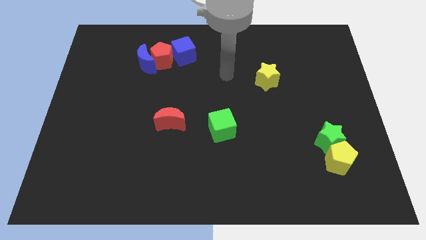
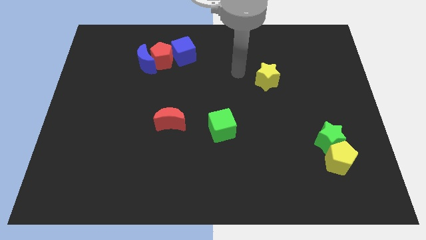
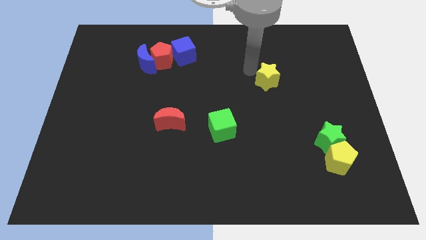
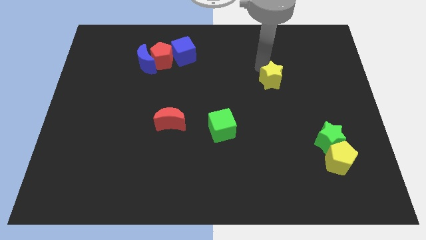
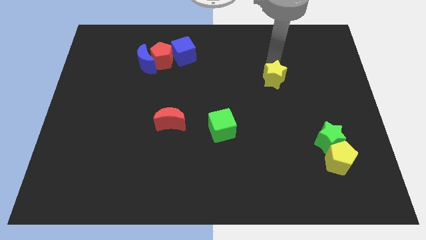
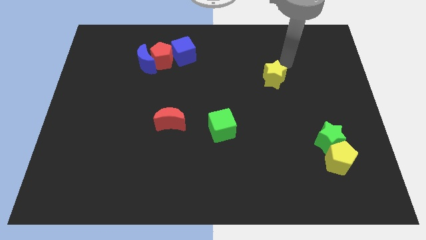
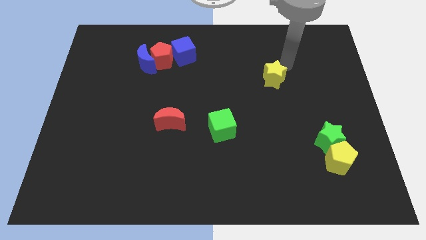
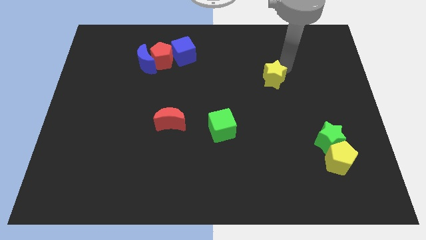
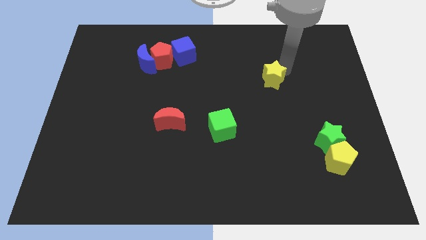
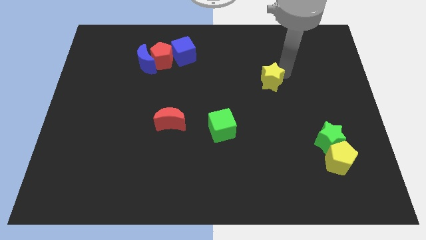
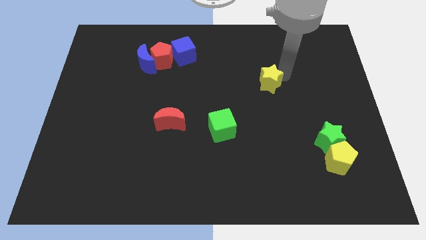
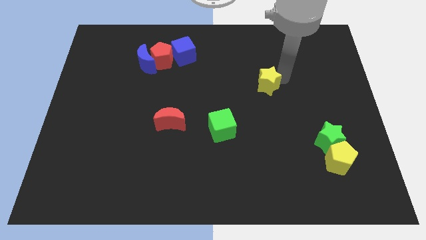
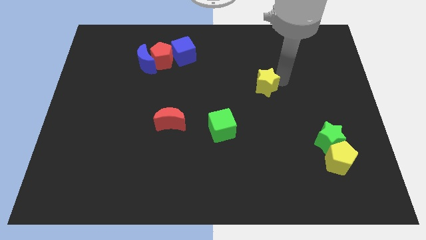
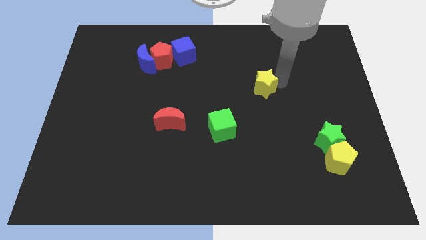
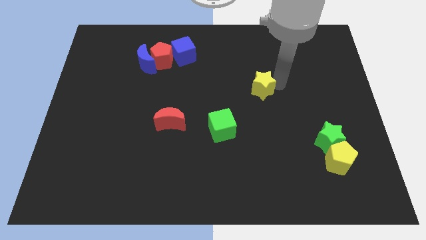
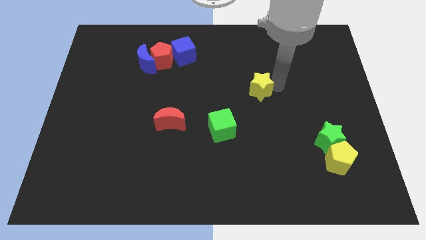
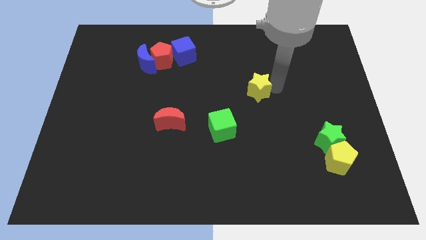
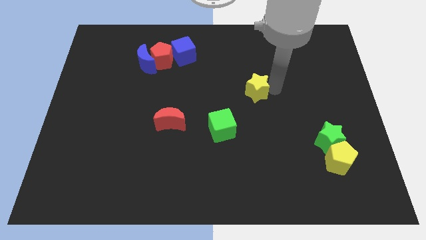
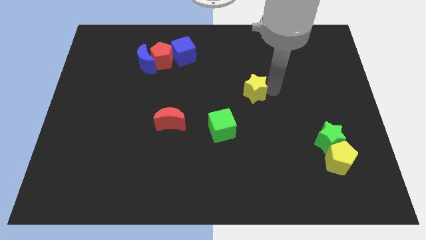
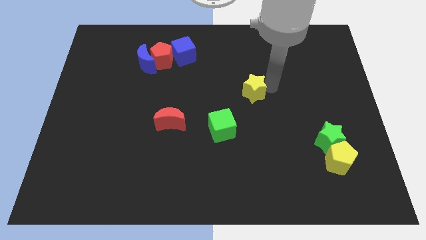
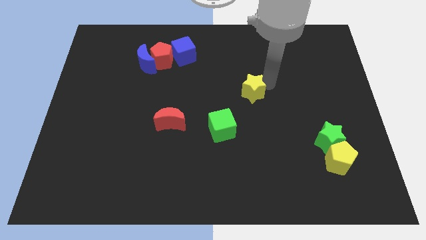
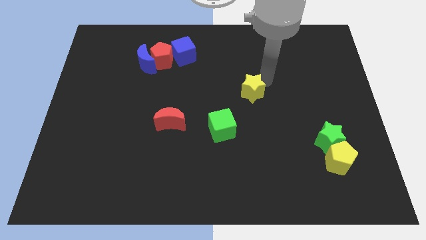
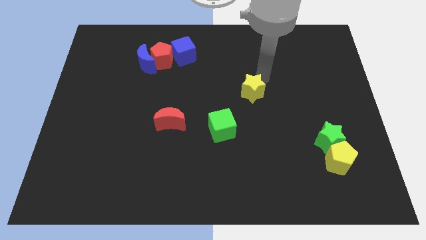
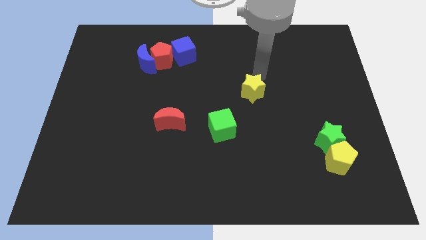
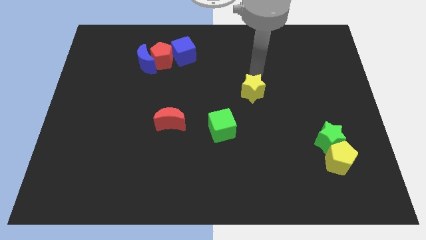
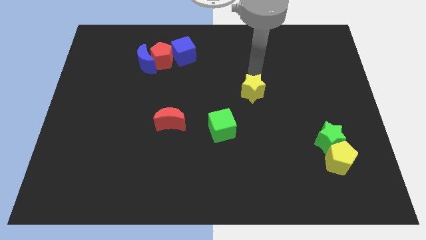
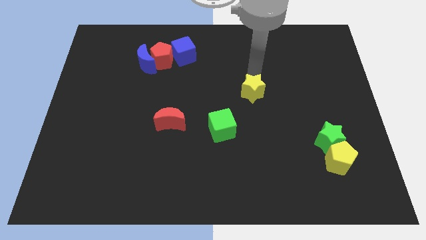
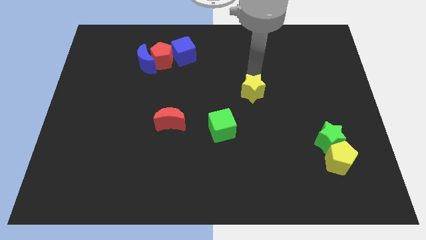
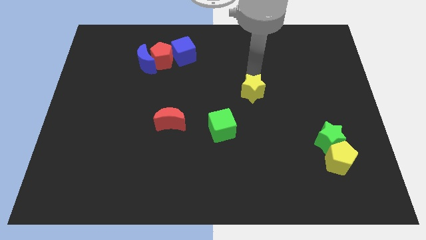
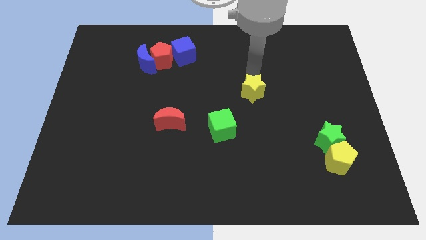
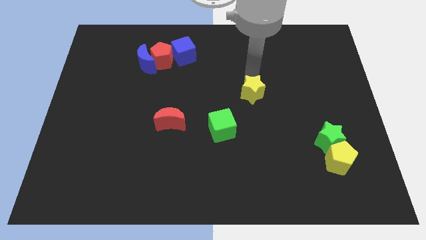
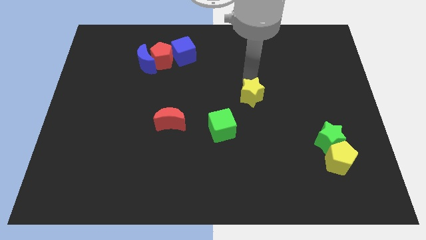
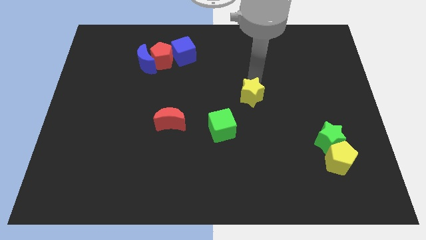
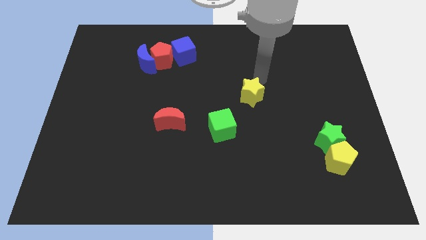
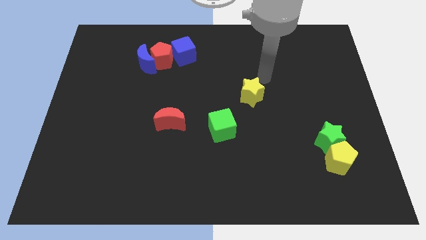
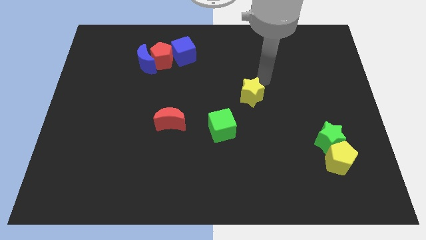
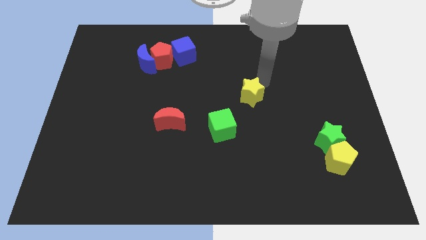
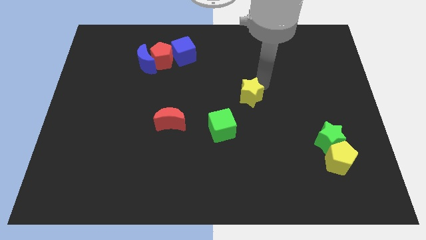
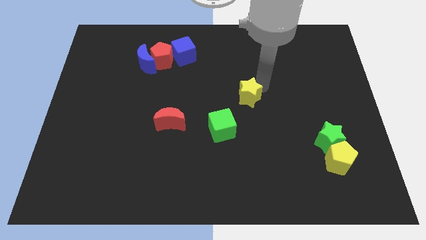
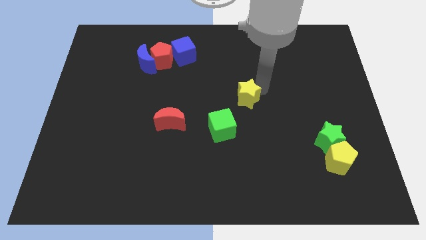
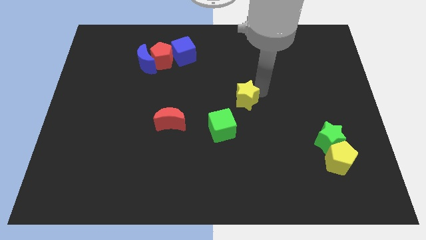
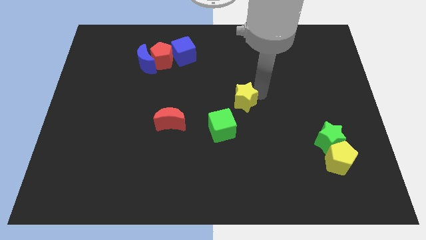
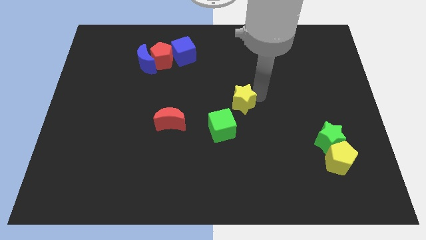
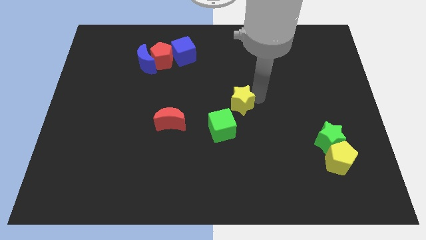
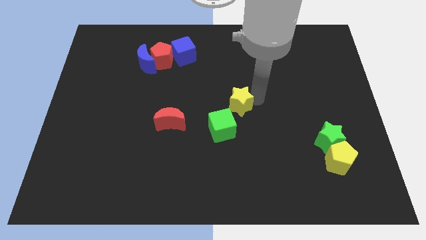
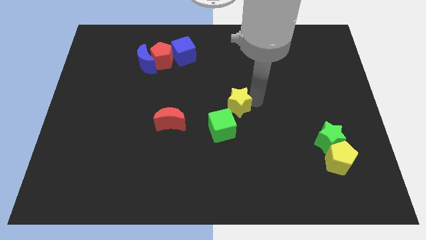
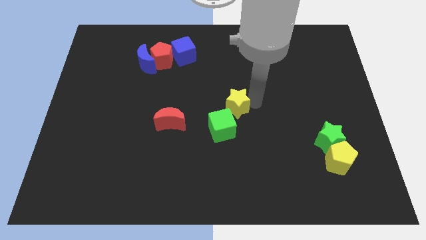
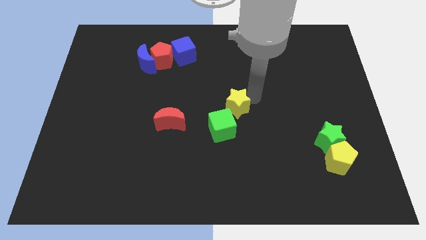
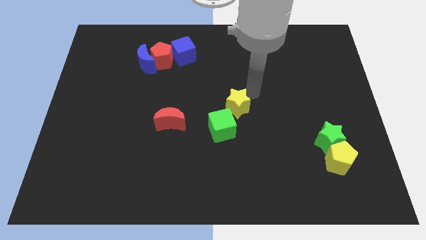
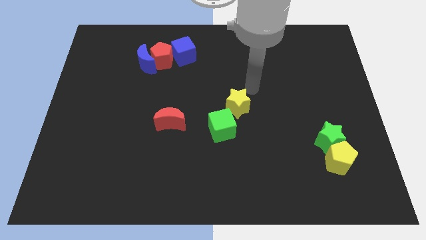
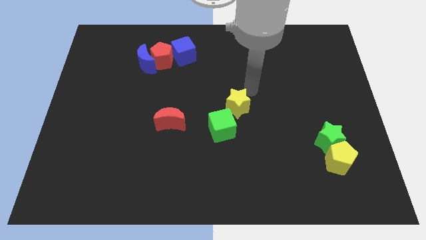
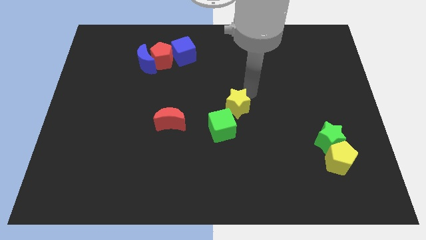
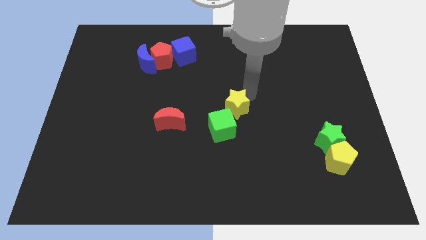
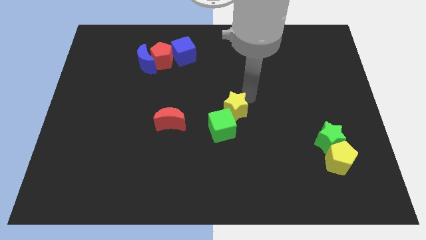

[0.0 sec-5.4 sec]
slide the yellow star towards the green cube
